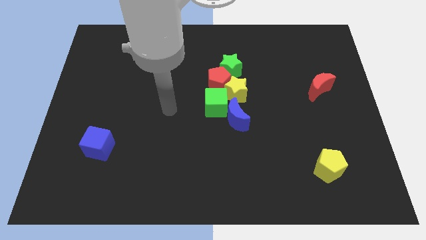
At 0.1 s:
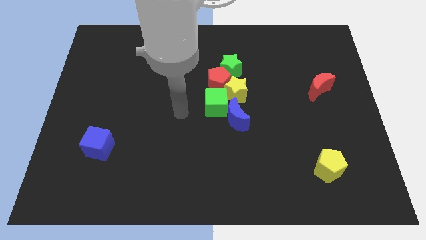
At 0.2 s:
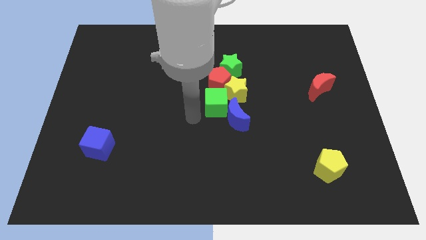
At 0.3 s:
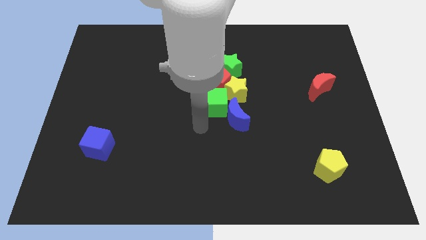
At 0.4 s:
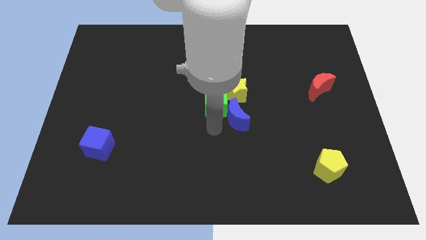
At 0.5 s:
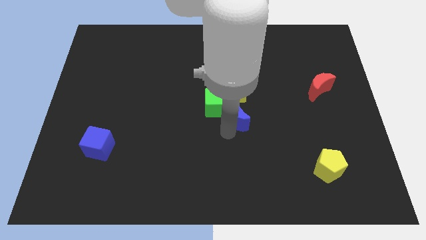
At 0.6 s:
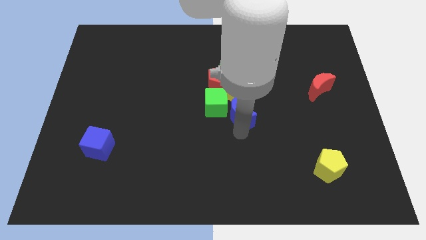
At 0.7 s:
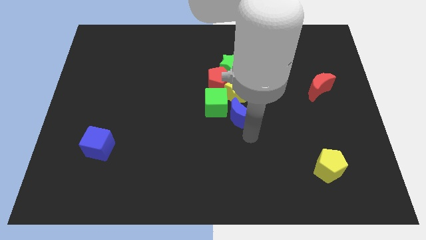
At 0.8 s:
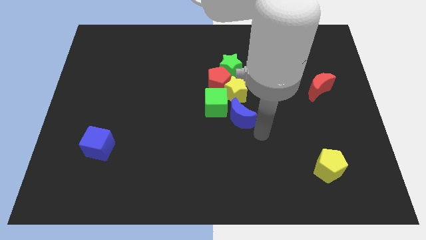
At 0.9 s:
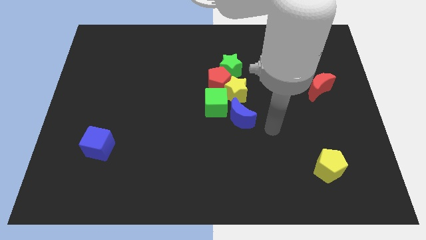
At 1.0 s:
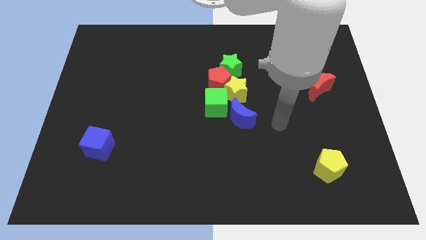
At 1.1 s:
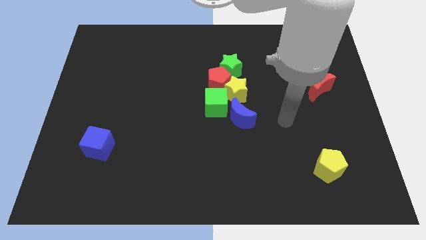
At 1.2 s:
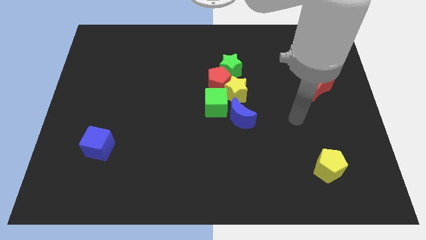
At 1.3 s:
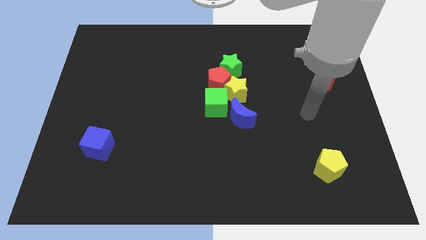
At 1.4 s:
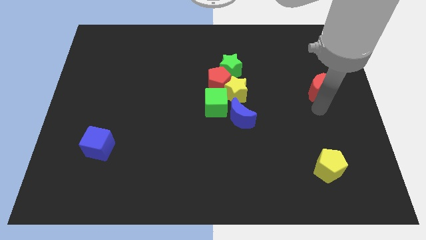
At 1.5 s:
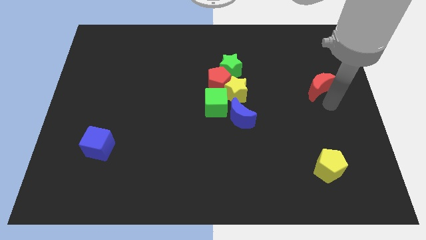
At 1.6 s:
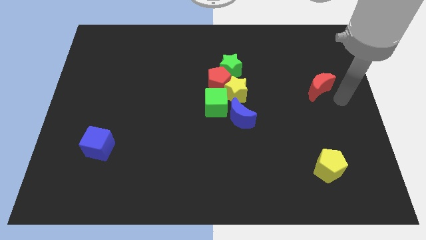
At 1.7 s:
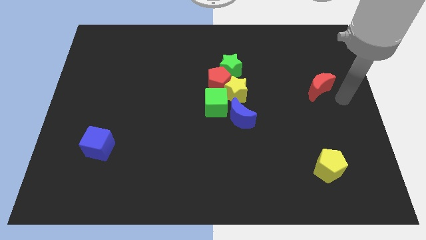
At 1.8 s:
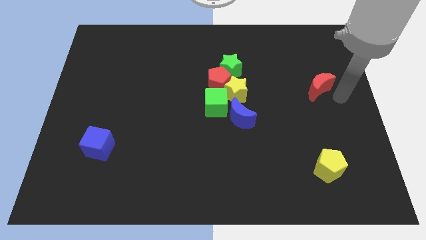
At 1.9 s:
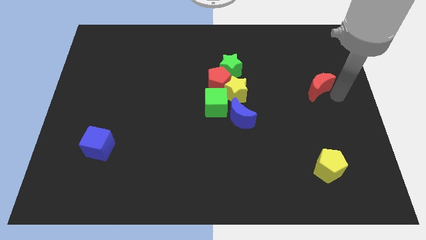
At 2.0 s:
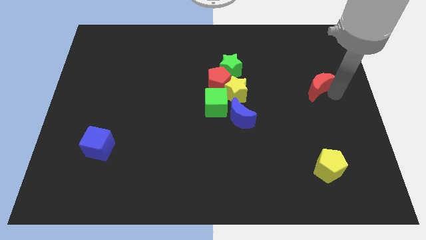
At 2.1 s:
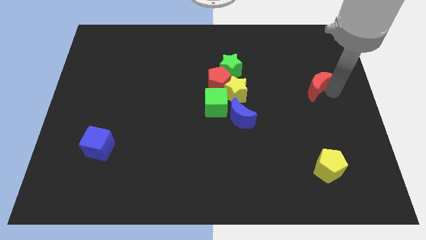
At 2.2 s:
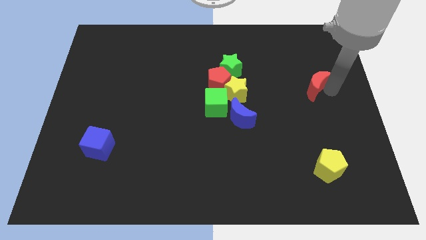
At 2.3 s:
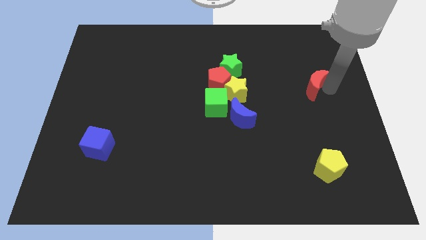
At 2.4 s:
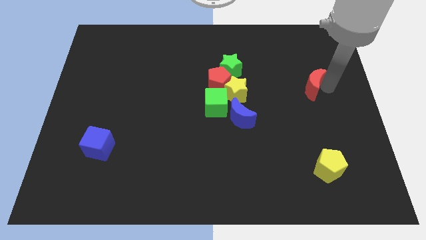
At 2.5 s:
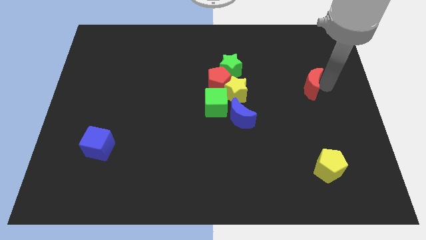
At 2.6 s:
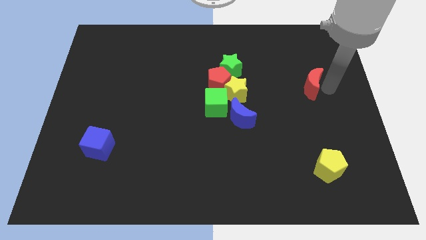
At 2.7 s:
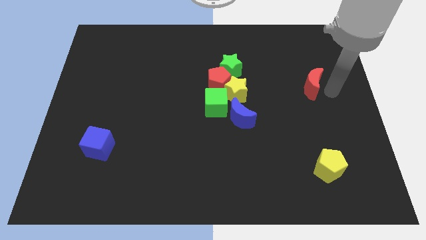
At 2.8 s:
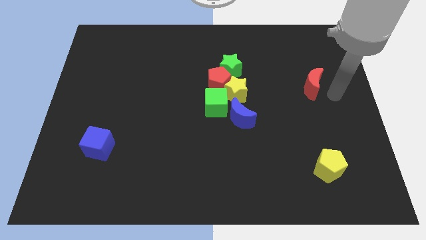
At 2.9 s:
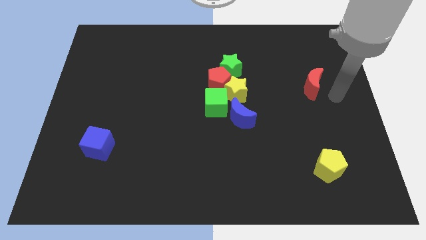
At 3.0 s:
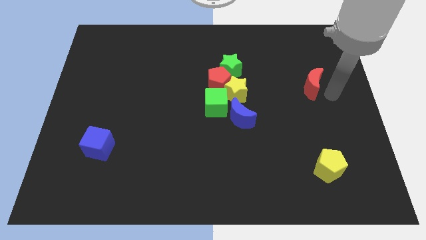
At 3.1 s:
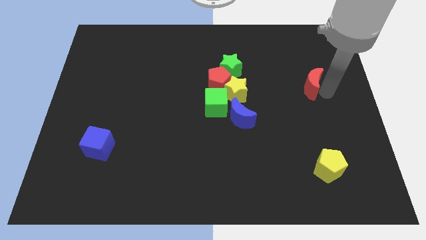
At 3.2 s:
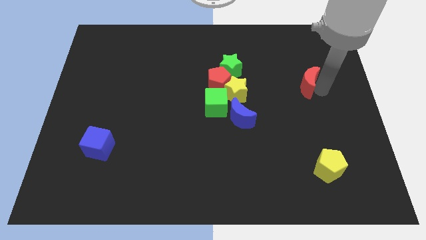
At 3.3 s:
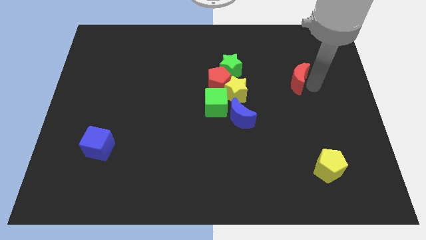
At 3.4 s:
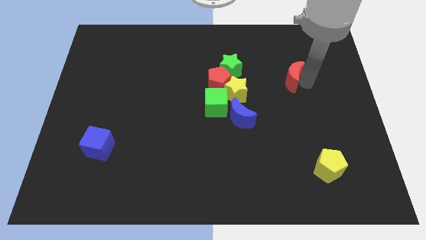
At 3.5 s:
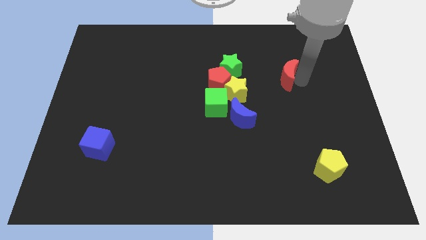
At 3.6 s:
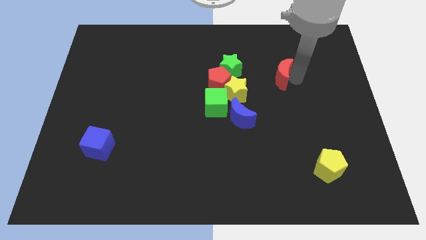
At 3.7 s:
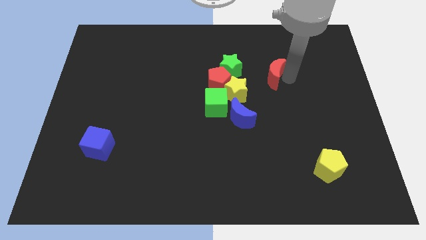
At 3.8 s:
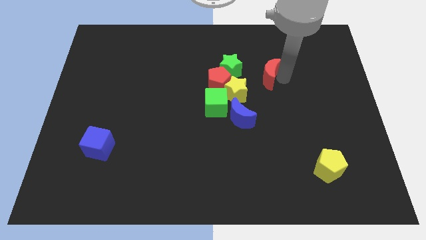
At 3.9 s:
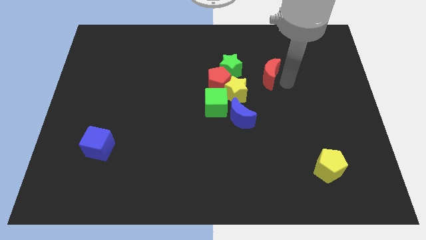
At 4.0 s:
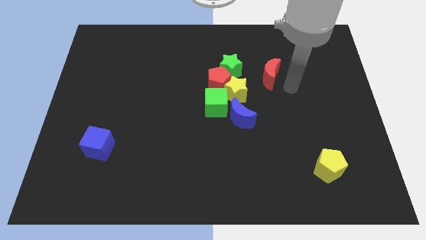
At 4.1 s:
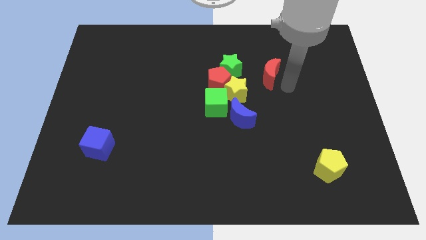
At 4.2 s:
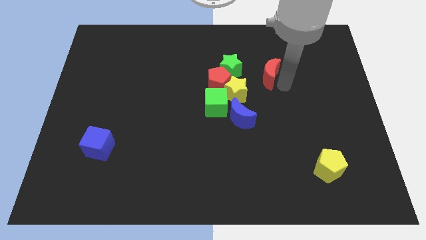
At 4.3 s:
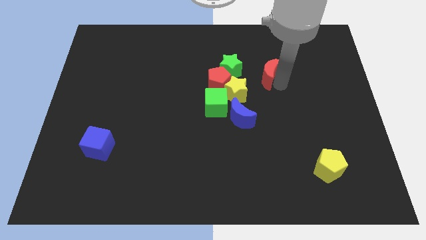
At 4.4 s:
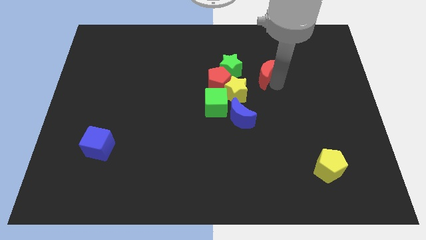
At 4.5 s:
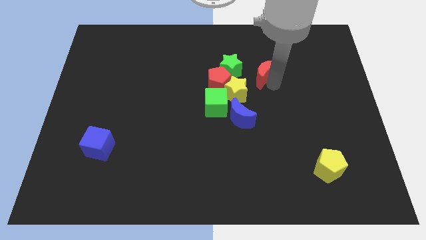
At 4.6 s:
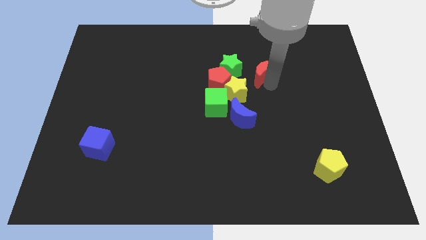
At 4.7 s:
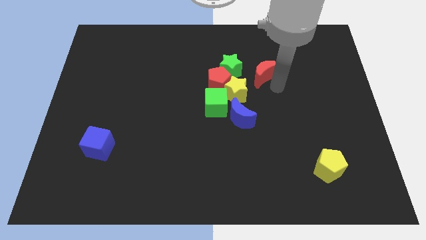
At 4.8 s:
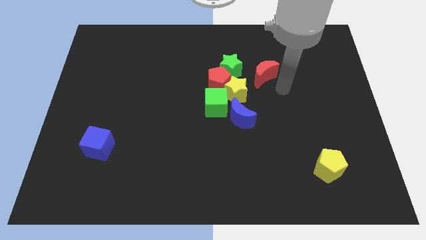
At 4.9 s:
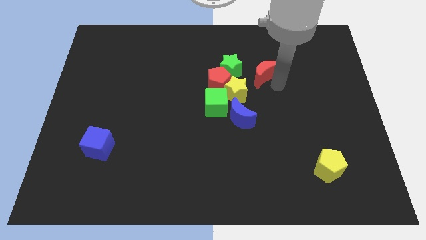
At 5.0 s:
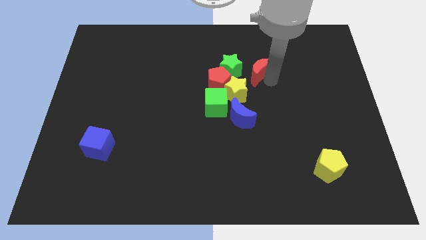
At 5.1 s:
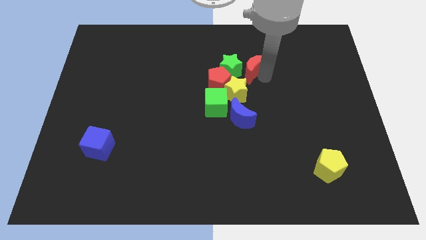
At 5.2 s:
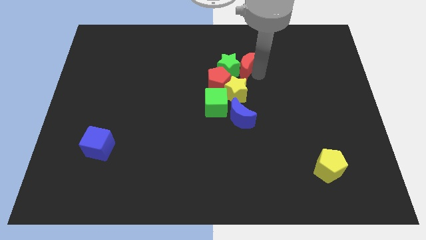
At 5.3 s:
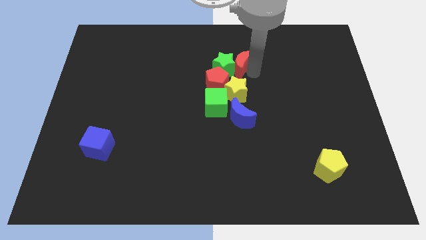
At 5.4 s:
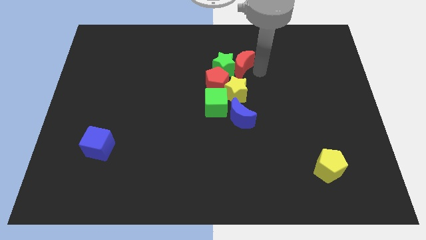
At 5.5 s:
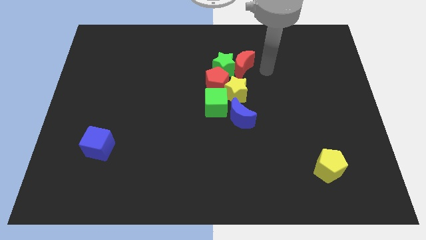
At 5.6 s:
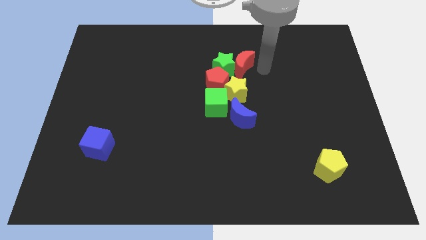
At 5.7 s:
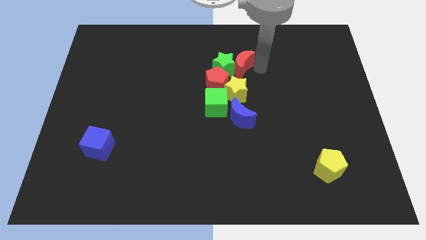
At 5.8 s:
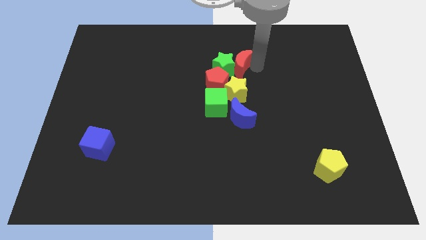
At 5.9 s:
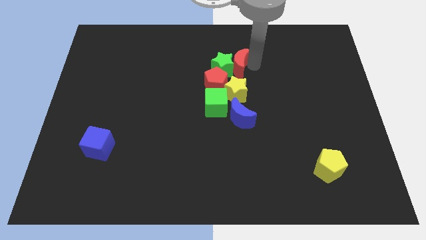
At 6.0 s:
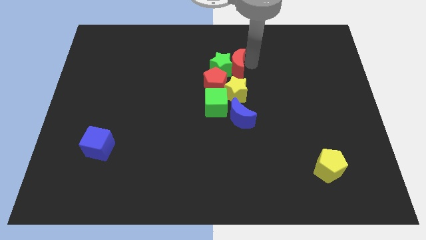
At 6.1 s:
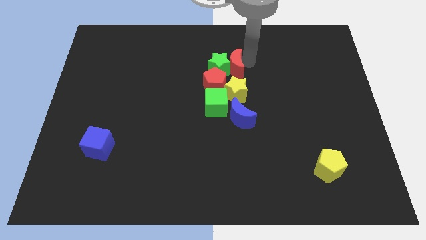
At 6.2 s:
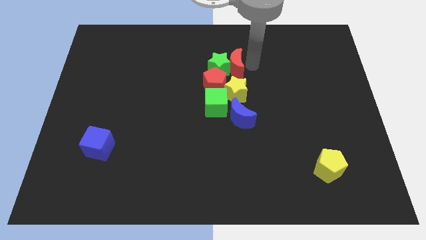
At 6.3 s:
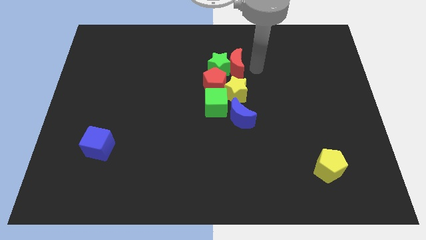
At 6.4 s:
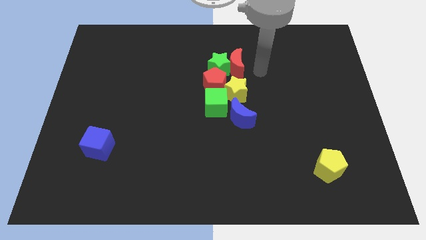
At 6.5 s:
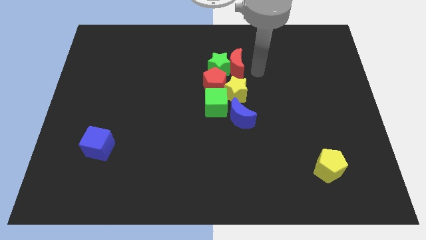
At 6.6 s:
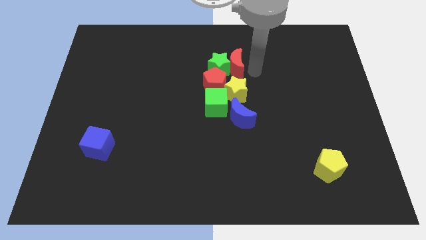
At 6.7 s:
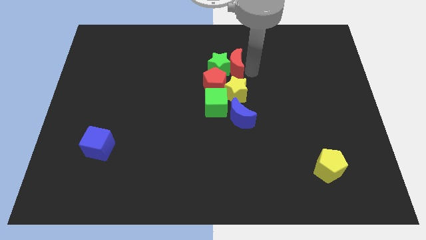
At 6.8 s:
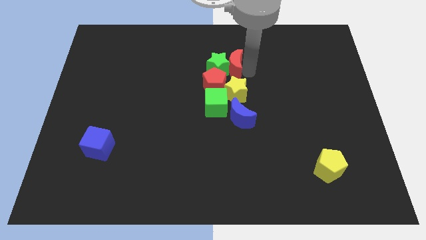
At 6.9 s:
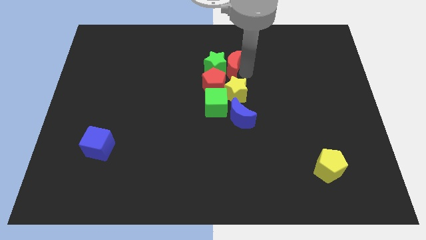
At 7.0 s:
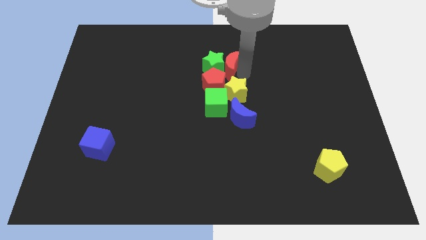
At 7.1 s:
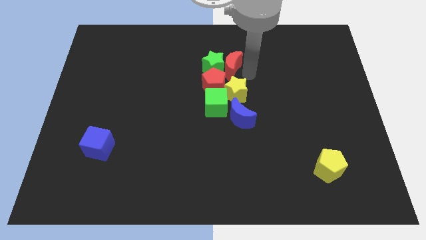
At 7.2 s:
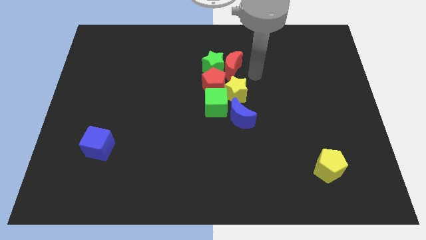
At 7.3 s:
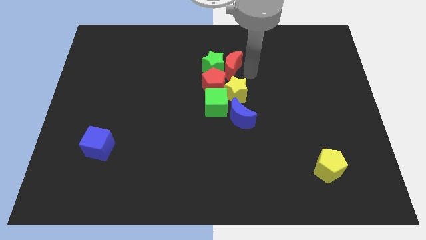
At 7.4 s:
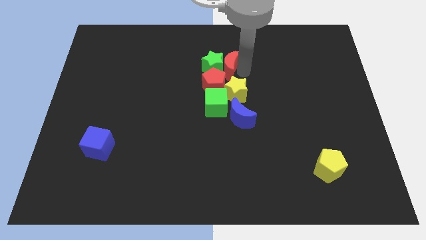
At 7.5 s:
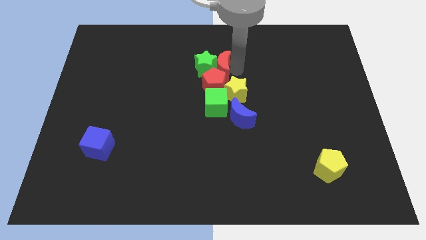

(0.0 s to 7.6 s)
push the red moon to the red pentagon
